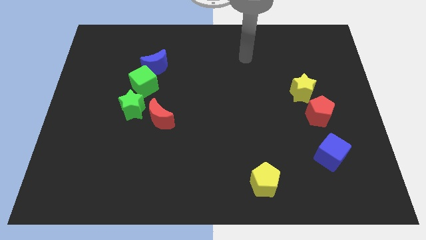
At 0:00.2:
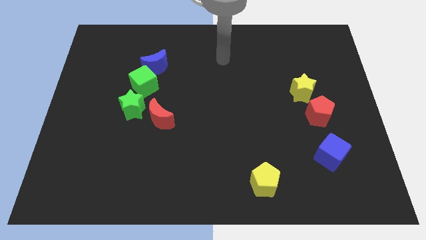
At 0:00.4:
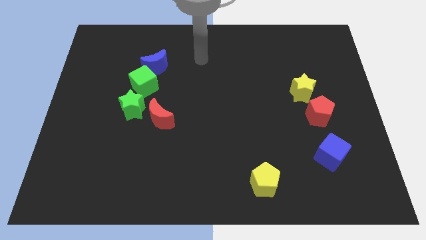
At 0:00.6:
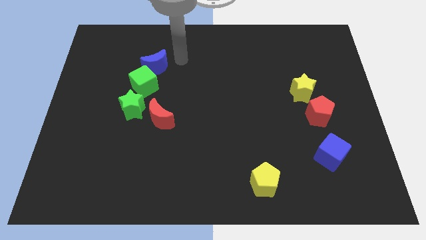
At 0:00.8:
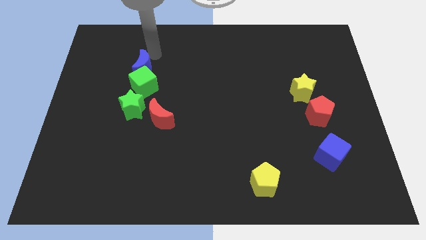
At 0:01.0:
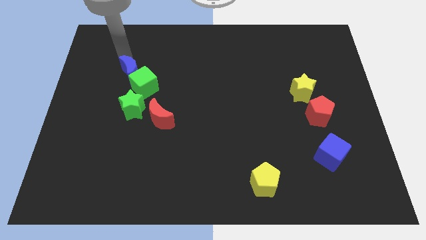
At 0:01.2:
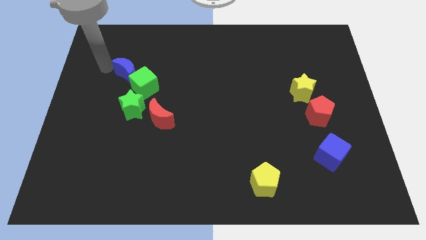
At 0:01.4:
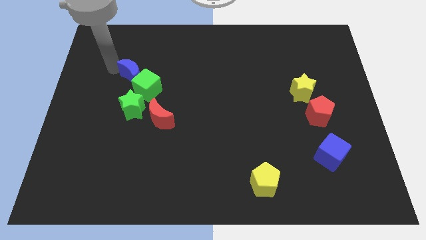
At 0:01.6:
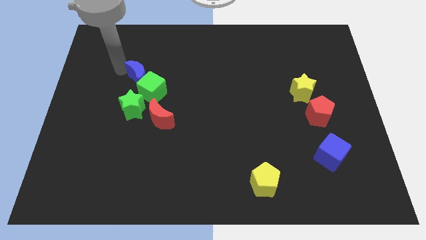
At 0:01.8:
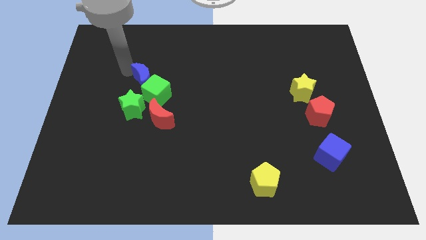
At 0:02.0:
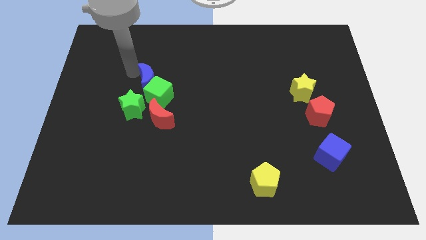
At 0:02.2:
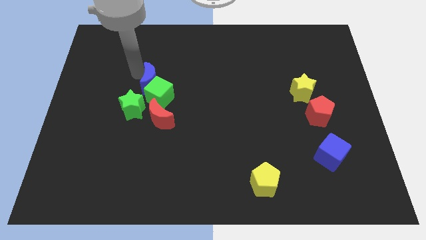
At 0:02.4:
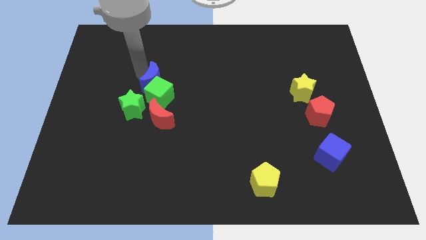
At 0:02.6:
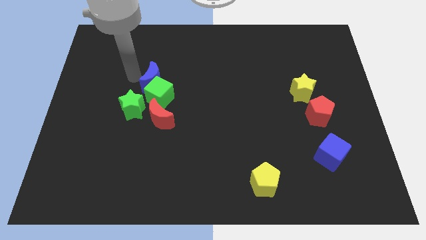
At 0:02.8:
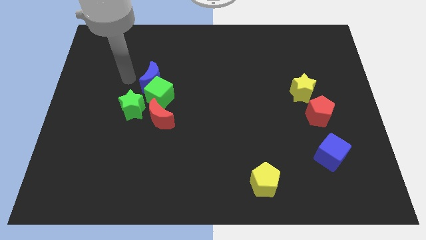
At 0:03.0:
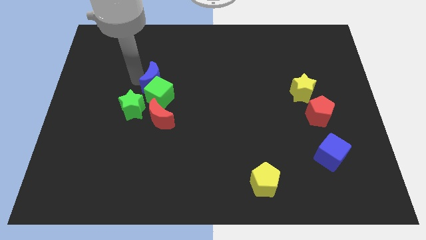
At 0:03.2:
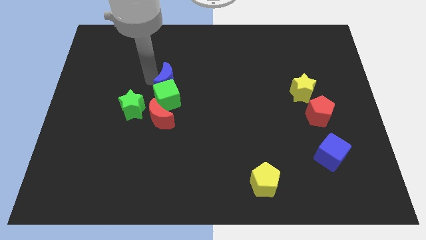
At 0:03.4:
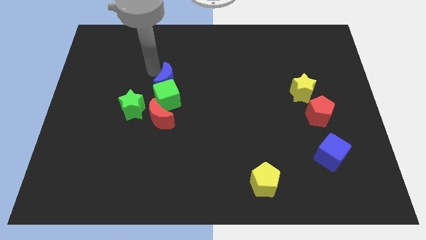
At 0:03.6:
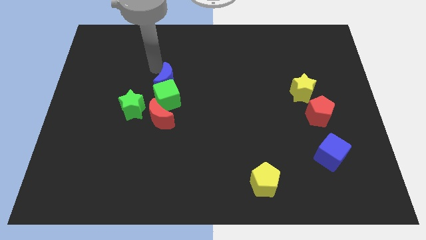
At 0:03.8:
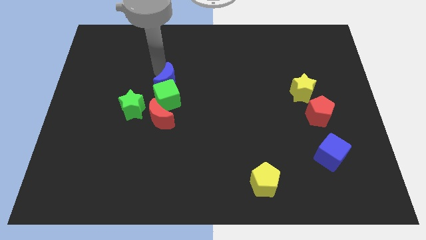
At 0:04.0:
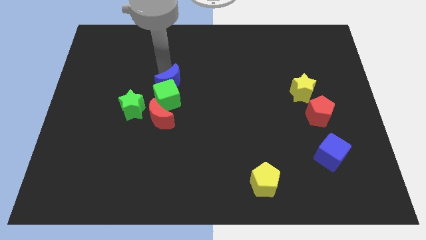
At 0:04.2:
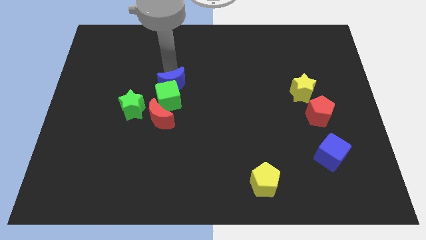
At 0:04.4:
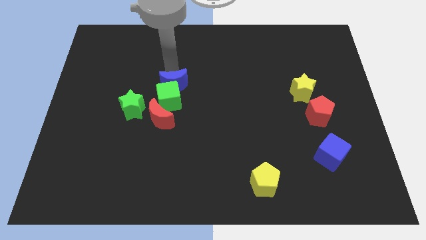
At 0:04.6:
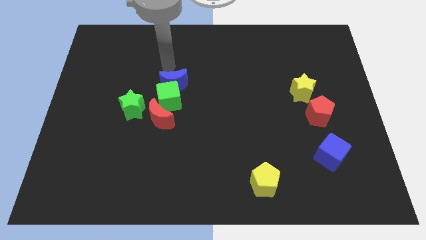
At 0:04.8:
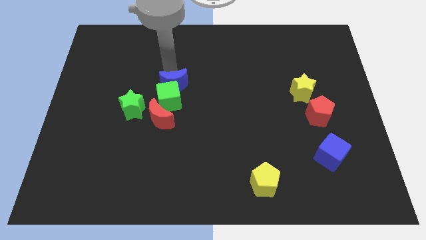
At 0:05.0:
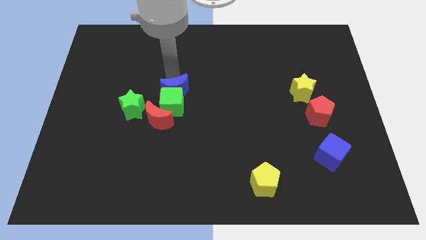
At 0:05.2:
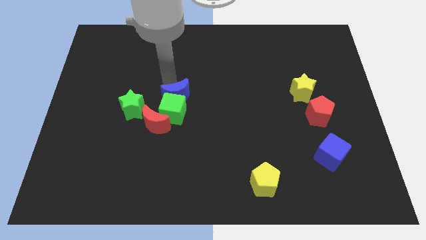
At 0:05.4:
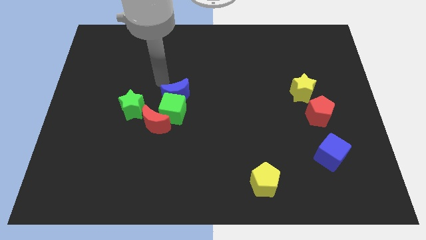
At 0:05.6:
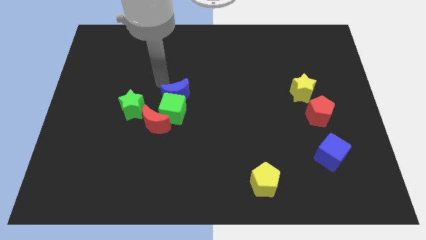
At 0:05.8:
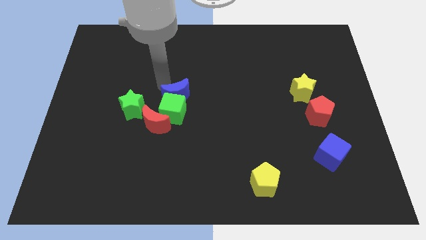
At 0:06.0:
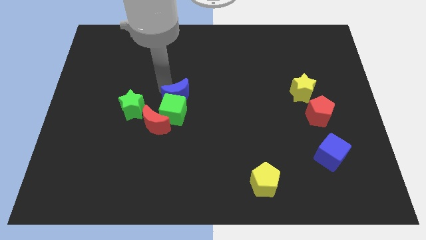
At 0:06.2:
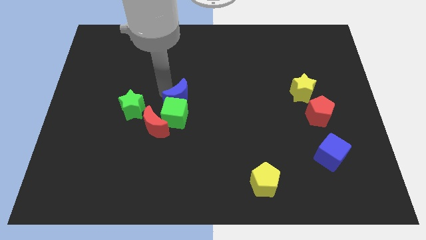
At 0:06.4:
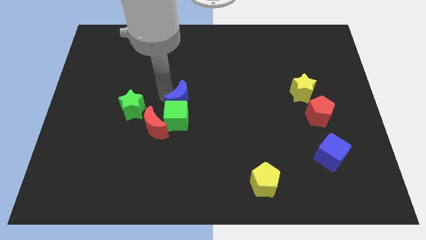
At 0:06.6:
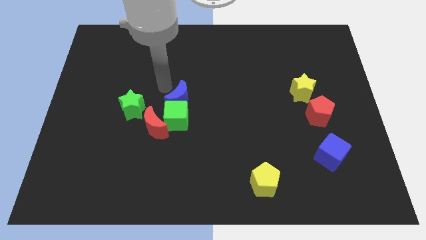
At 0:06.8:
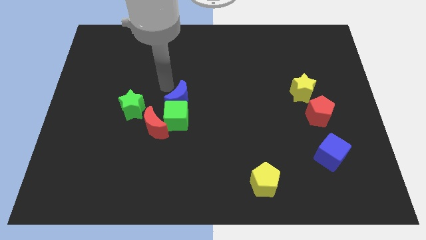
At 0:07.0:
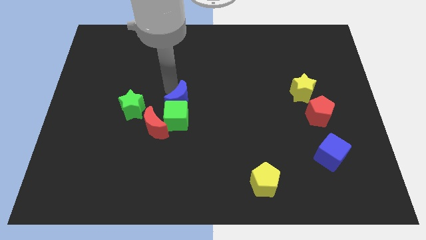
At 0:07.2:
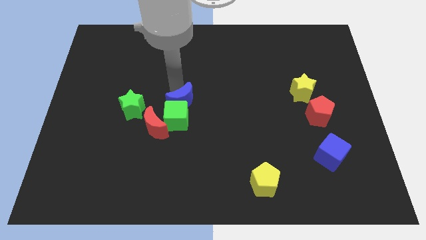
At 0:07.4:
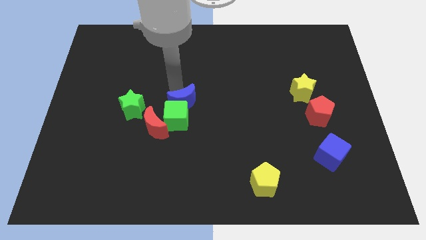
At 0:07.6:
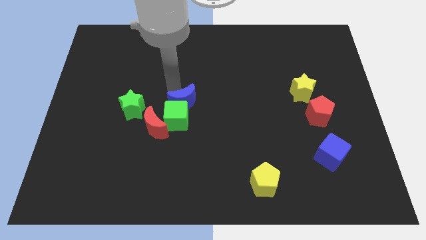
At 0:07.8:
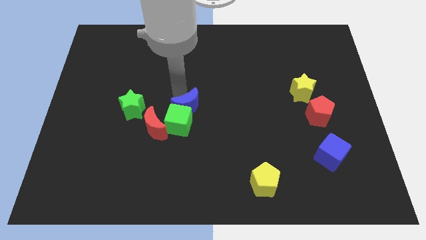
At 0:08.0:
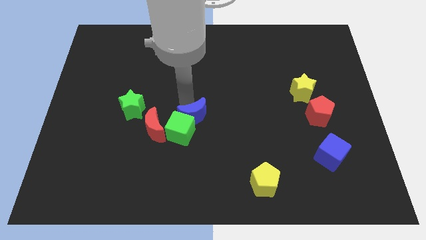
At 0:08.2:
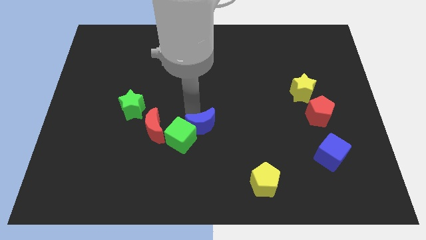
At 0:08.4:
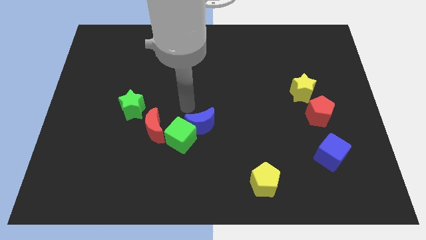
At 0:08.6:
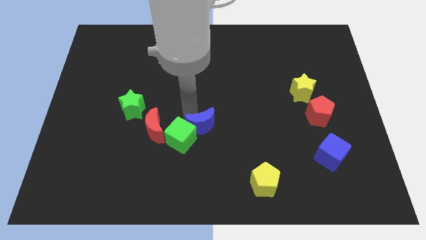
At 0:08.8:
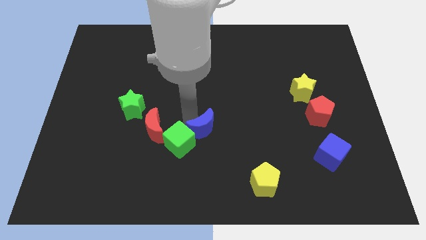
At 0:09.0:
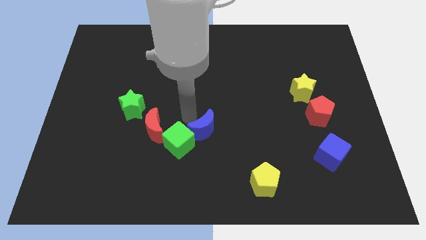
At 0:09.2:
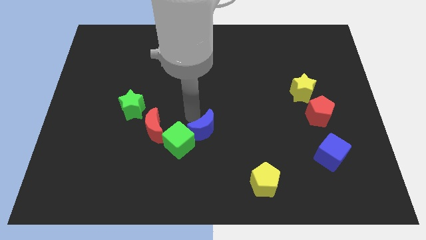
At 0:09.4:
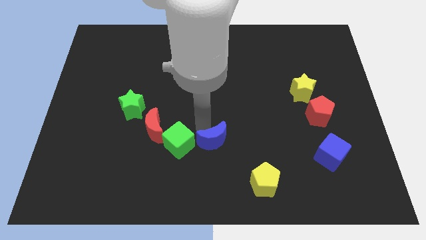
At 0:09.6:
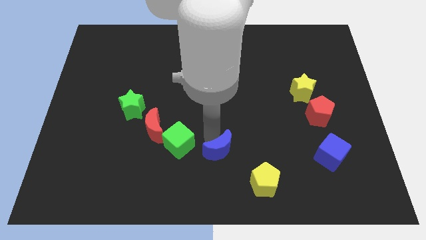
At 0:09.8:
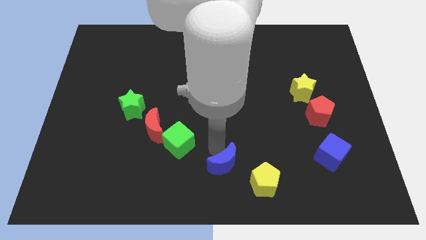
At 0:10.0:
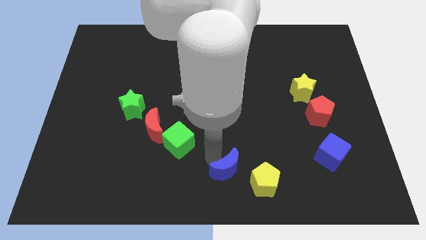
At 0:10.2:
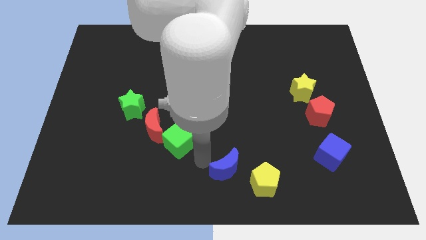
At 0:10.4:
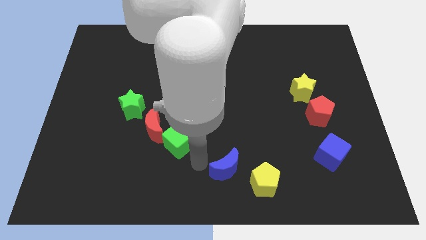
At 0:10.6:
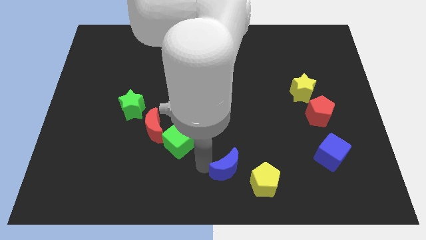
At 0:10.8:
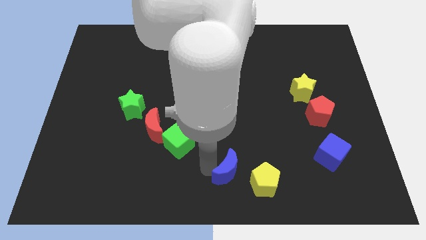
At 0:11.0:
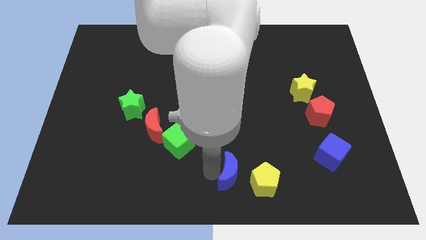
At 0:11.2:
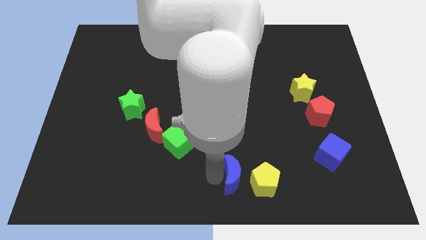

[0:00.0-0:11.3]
push the blue moon towards the yellow pentagon

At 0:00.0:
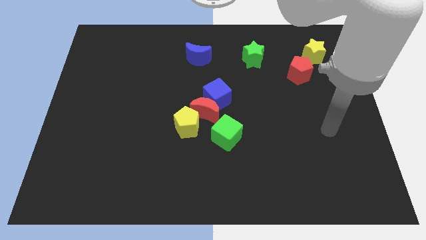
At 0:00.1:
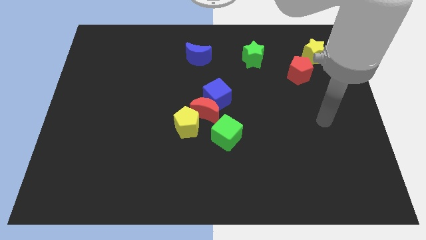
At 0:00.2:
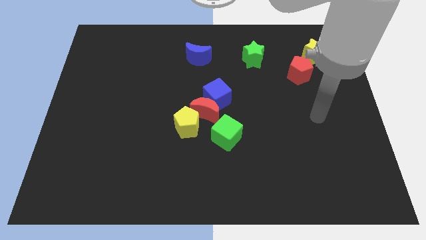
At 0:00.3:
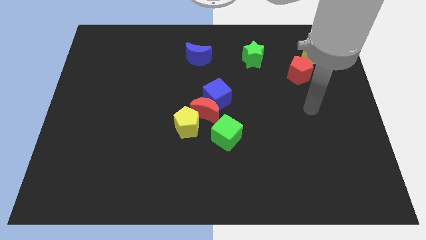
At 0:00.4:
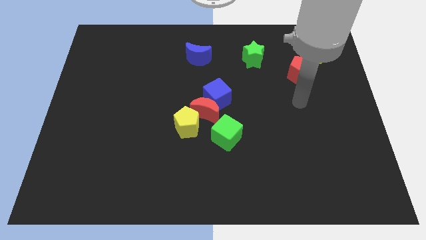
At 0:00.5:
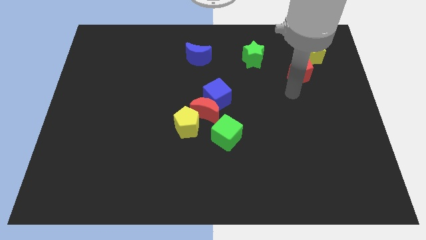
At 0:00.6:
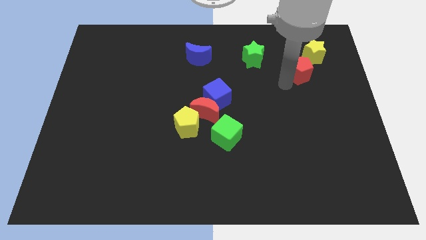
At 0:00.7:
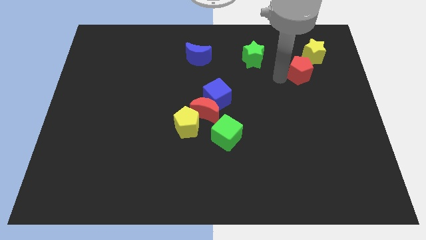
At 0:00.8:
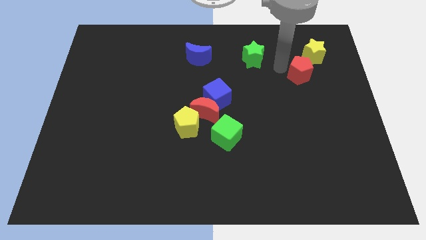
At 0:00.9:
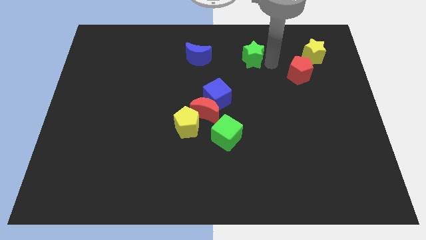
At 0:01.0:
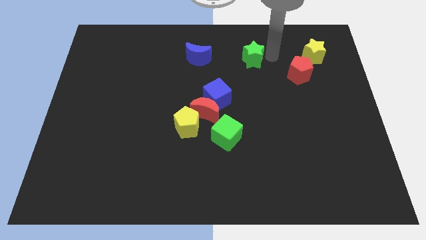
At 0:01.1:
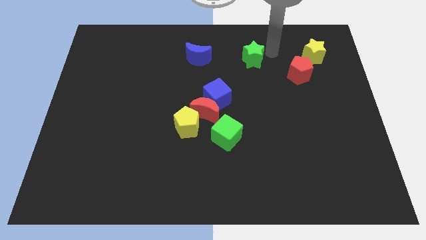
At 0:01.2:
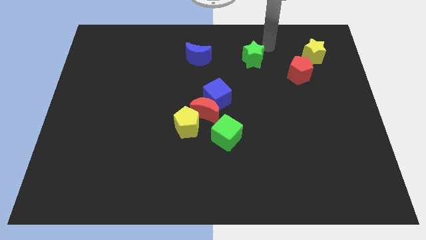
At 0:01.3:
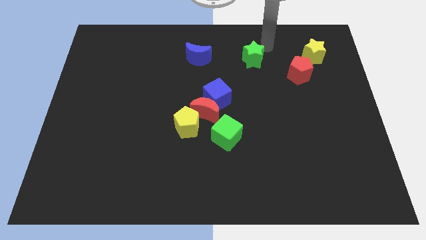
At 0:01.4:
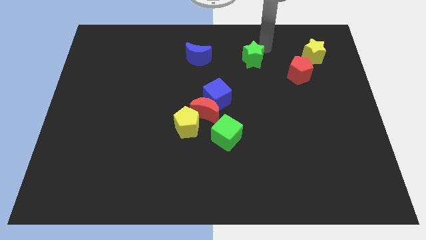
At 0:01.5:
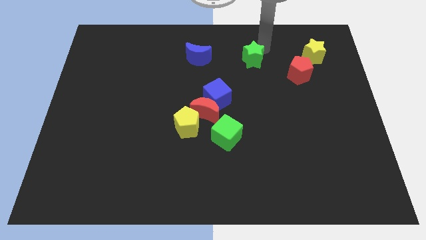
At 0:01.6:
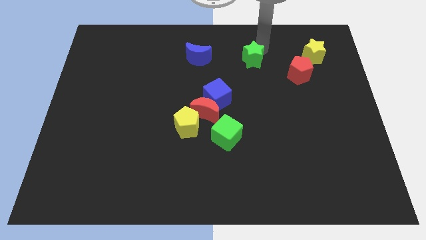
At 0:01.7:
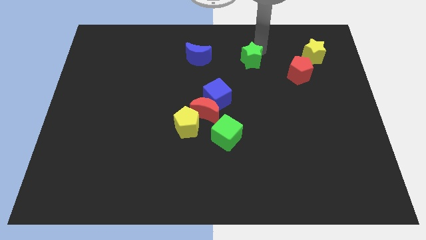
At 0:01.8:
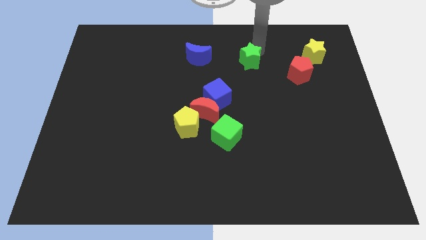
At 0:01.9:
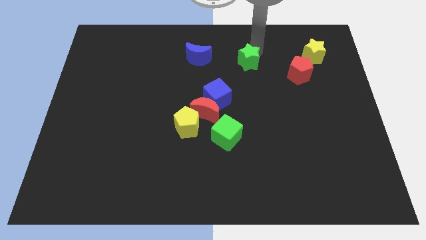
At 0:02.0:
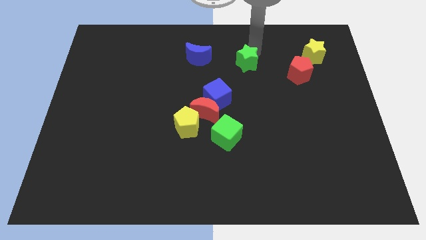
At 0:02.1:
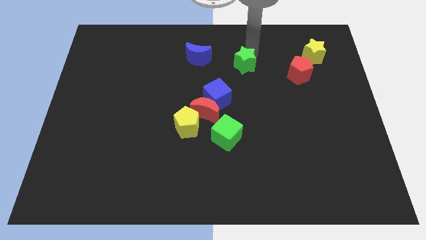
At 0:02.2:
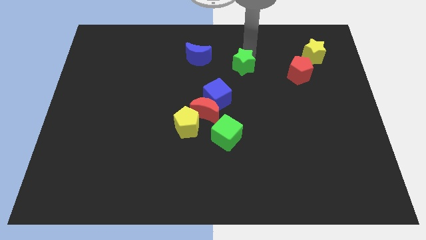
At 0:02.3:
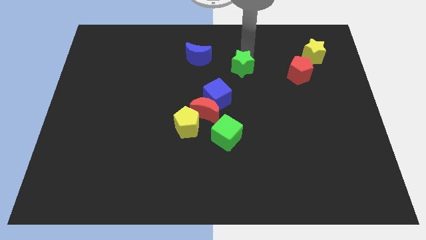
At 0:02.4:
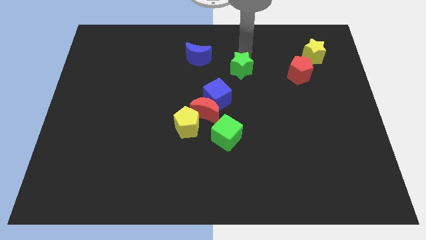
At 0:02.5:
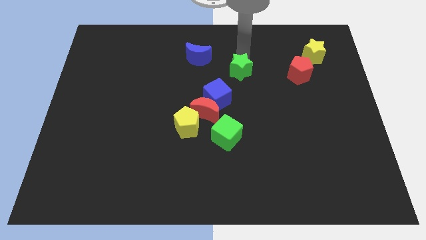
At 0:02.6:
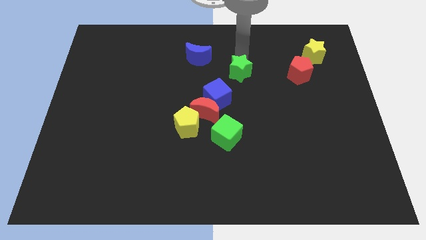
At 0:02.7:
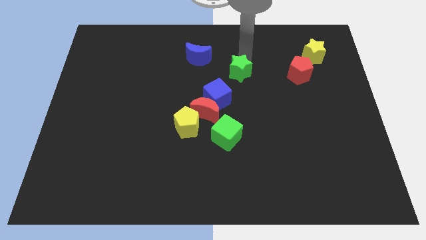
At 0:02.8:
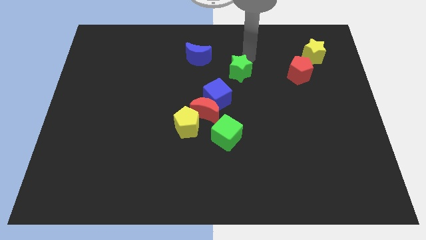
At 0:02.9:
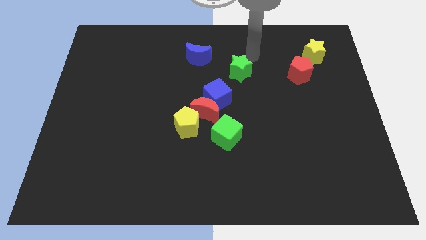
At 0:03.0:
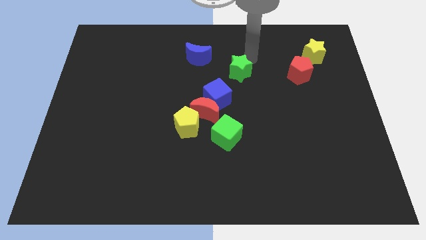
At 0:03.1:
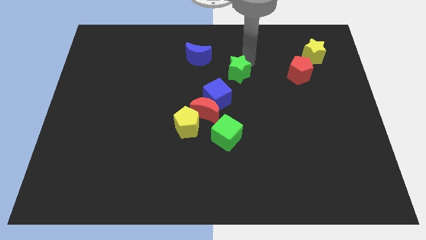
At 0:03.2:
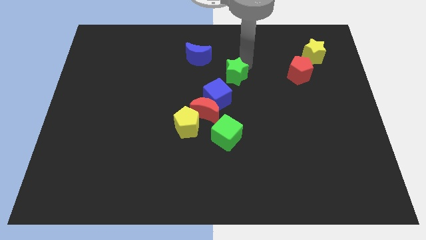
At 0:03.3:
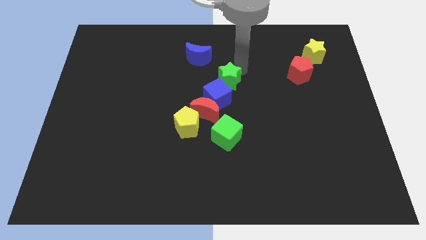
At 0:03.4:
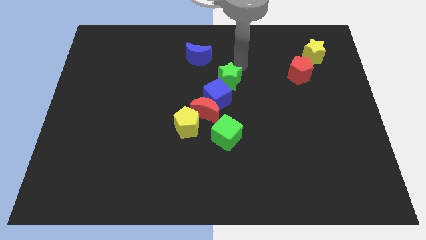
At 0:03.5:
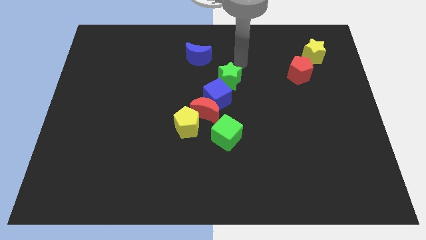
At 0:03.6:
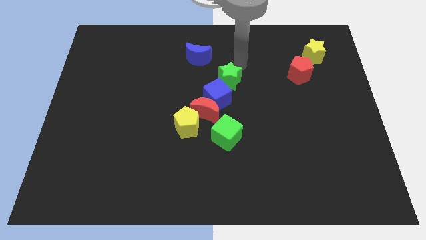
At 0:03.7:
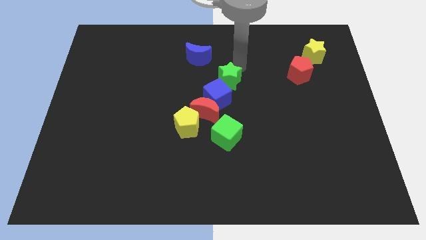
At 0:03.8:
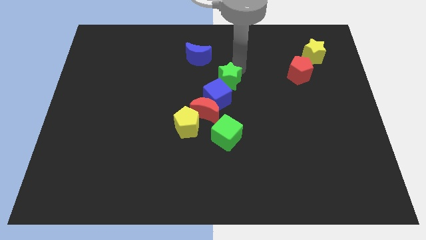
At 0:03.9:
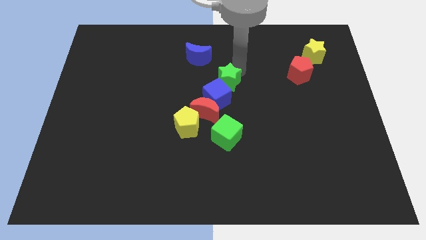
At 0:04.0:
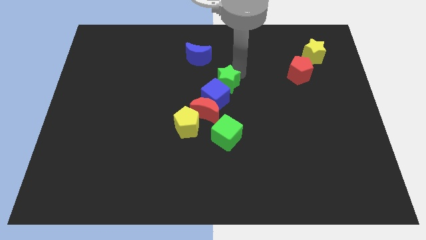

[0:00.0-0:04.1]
slide the green star close to the blue cube
